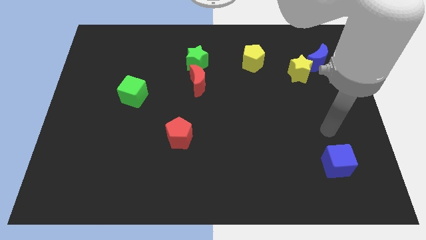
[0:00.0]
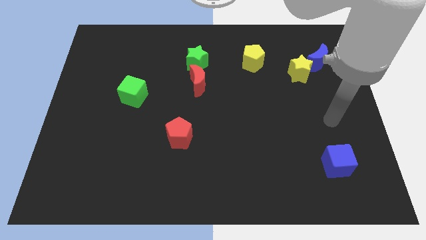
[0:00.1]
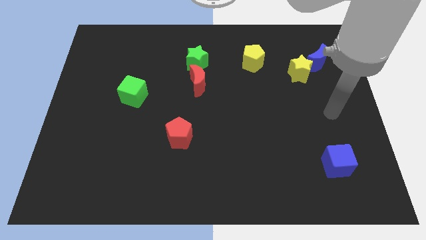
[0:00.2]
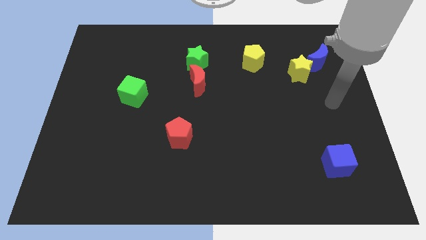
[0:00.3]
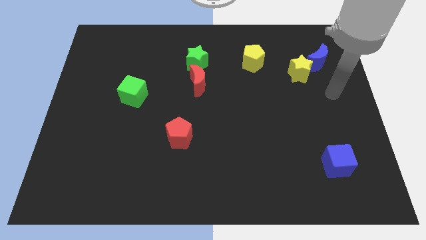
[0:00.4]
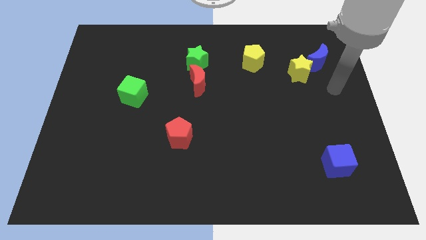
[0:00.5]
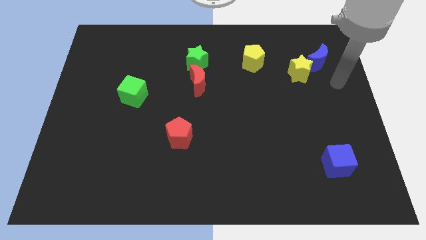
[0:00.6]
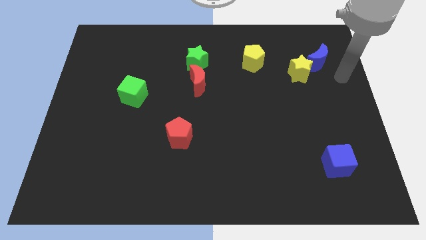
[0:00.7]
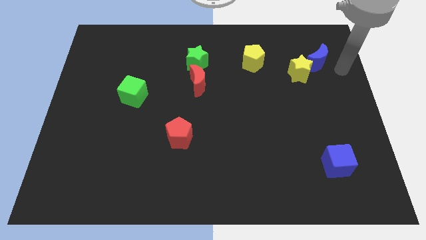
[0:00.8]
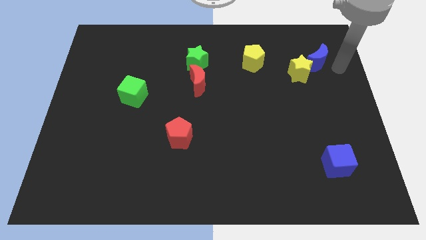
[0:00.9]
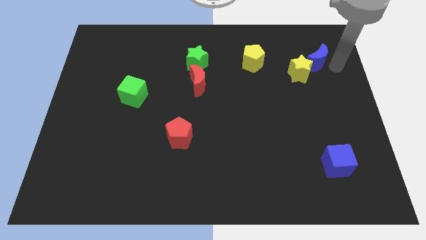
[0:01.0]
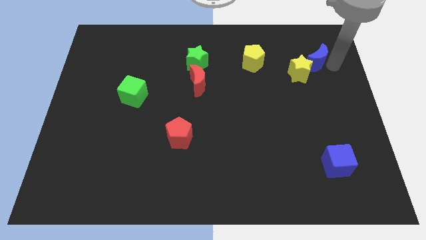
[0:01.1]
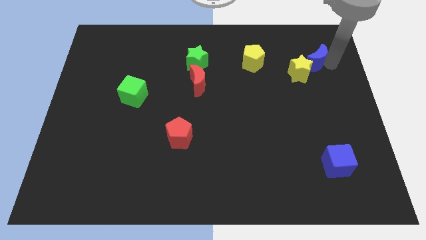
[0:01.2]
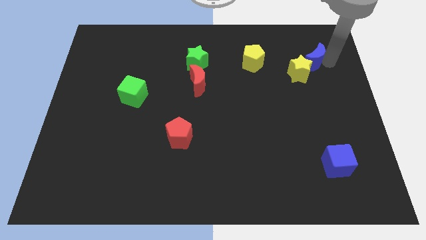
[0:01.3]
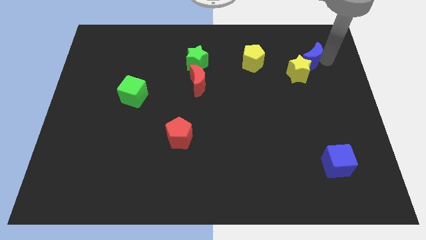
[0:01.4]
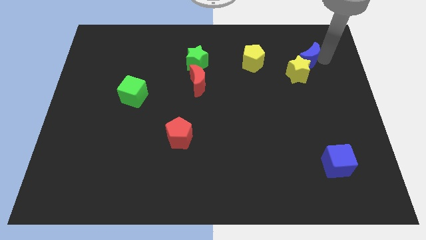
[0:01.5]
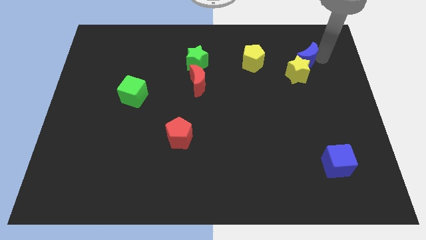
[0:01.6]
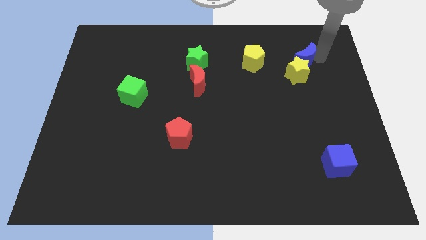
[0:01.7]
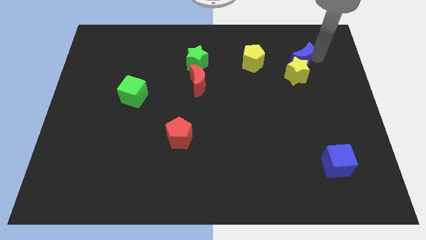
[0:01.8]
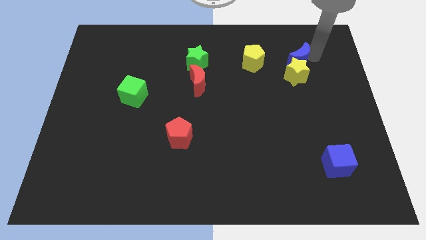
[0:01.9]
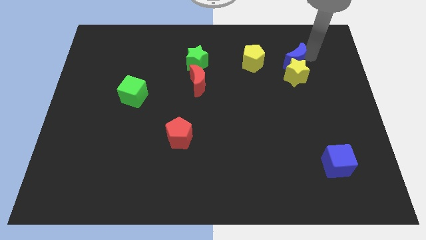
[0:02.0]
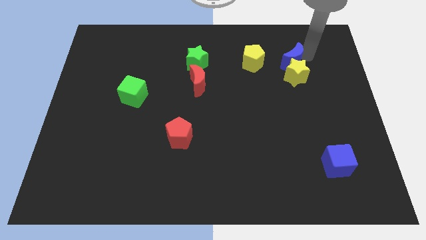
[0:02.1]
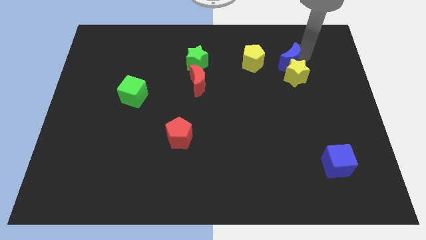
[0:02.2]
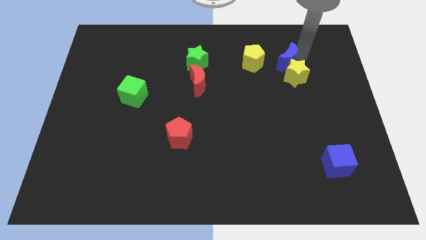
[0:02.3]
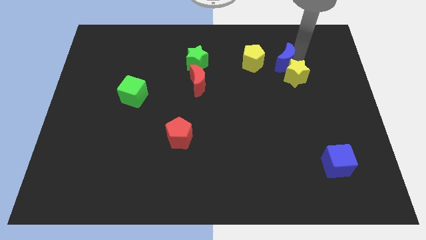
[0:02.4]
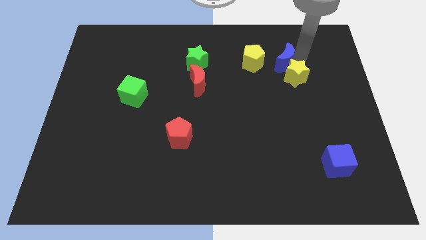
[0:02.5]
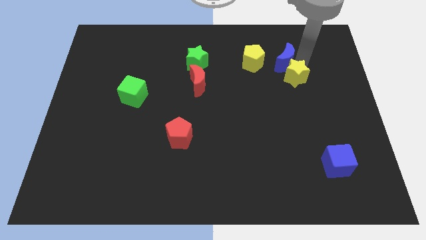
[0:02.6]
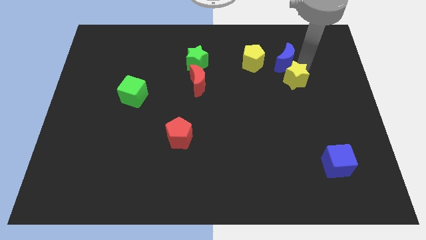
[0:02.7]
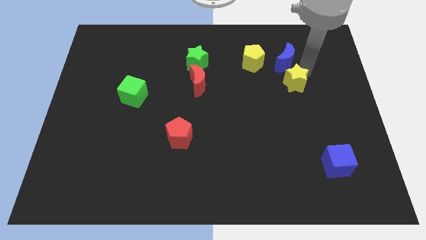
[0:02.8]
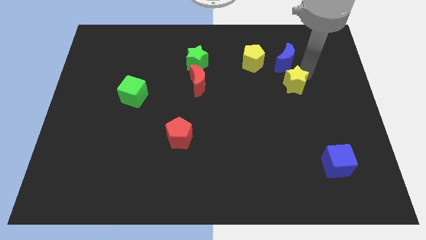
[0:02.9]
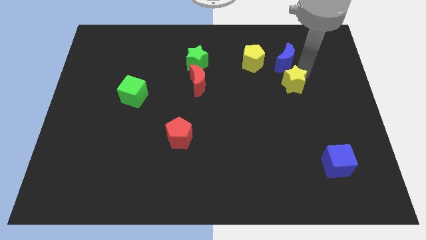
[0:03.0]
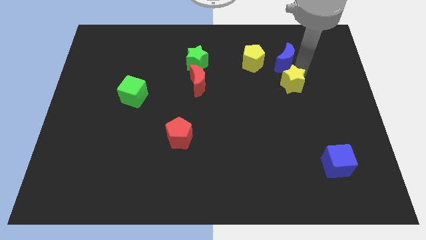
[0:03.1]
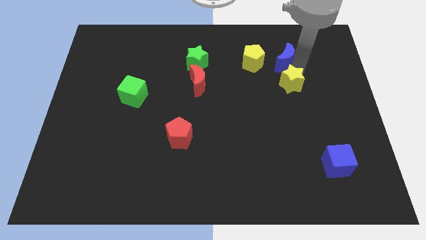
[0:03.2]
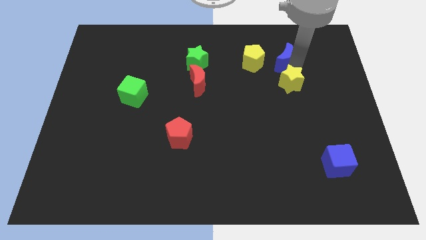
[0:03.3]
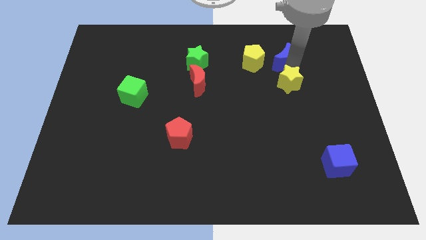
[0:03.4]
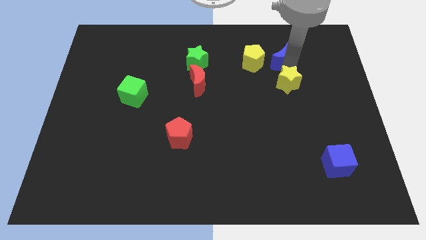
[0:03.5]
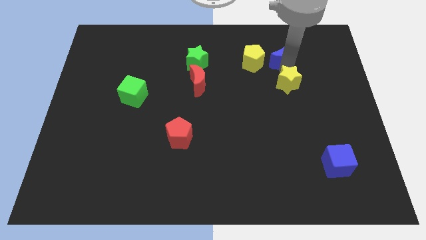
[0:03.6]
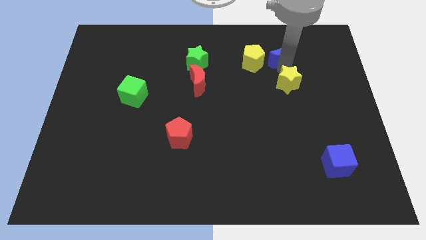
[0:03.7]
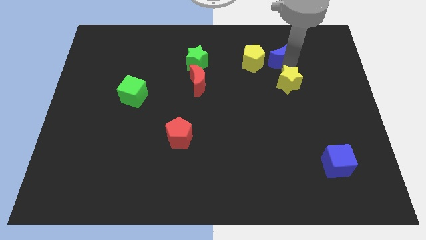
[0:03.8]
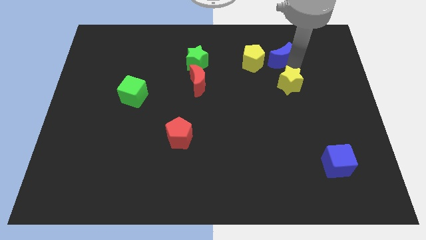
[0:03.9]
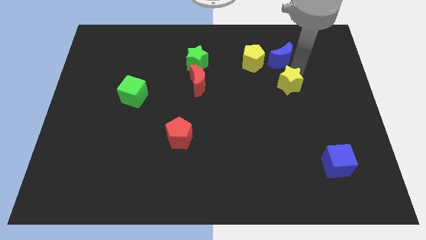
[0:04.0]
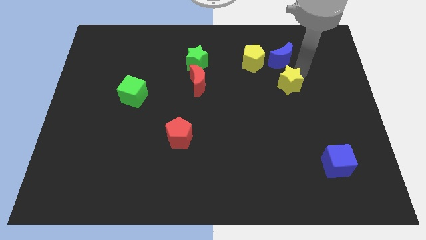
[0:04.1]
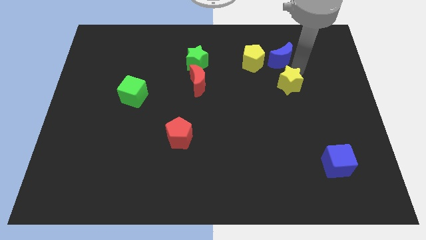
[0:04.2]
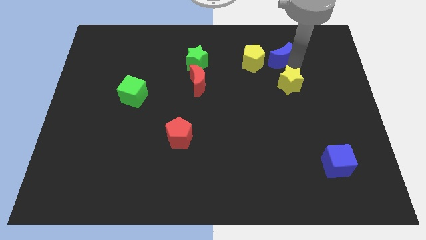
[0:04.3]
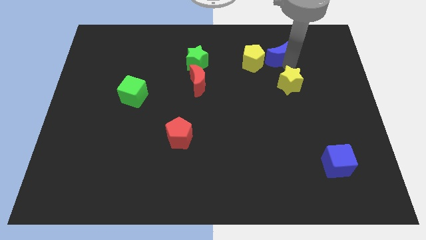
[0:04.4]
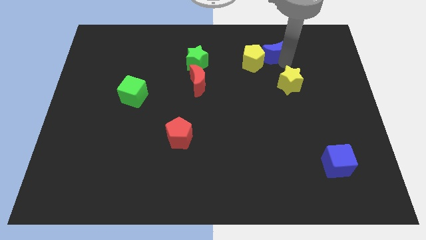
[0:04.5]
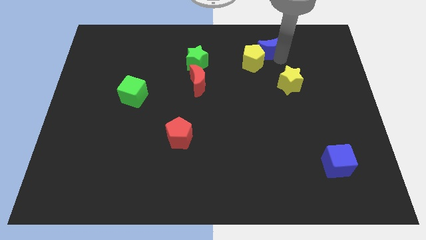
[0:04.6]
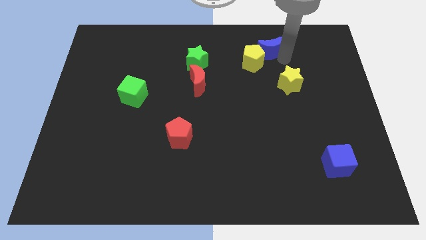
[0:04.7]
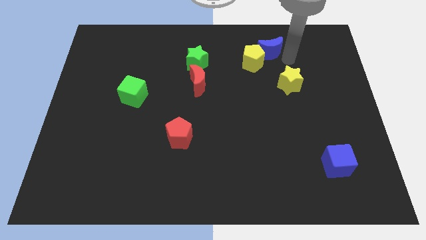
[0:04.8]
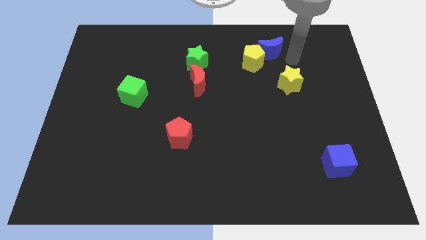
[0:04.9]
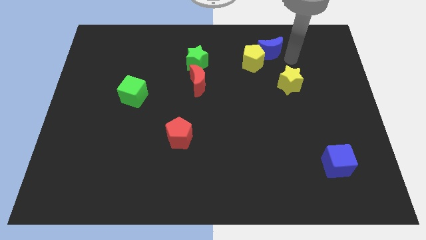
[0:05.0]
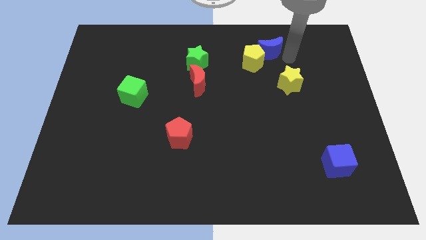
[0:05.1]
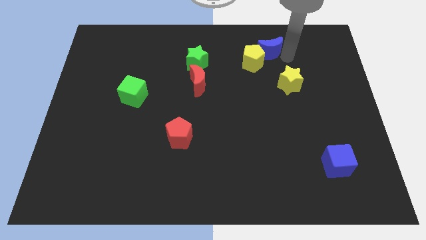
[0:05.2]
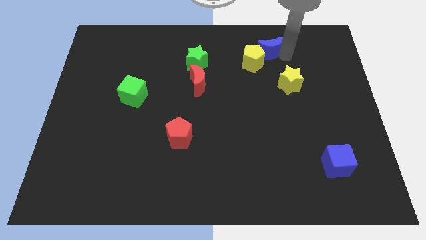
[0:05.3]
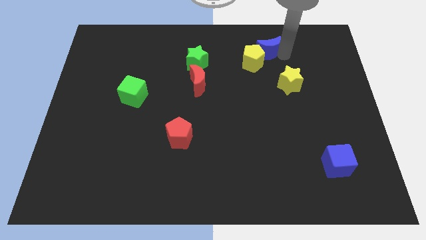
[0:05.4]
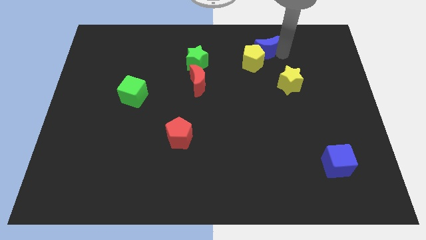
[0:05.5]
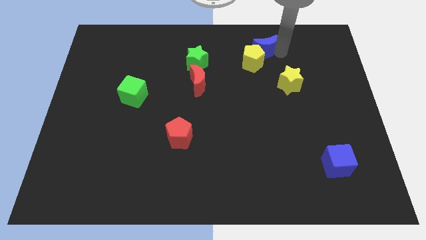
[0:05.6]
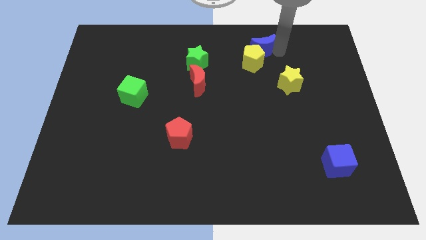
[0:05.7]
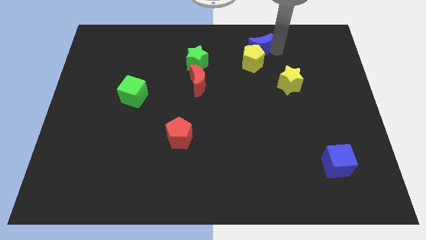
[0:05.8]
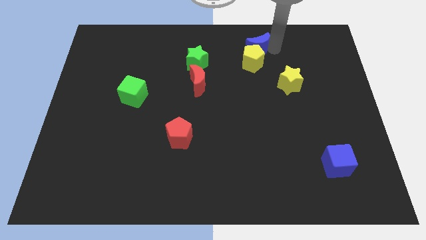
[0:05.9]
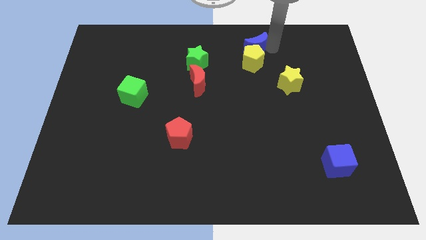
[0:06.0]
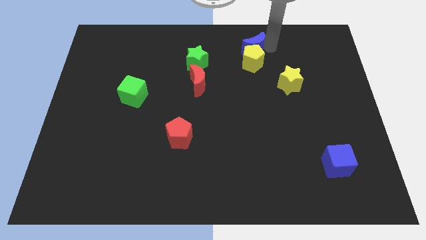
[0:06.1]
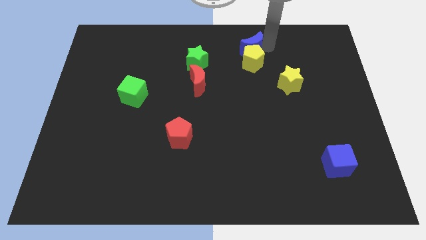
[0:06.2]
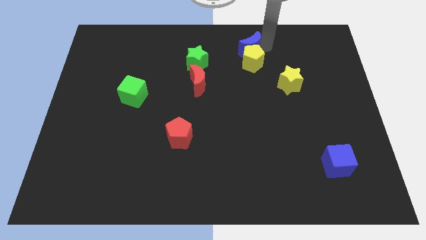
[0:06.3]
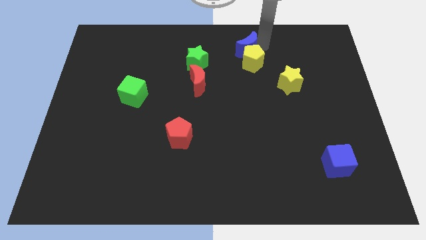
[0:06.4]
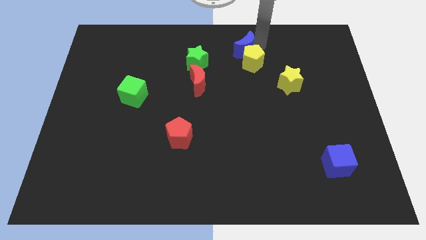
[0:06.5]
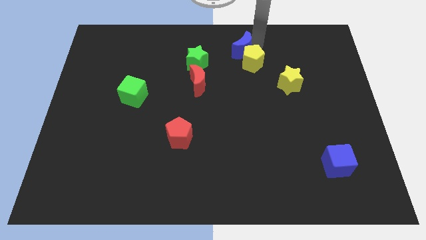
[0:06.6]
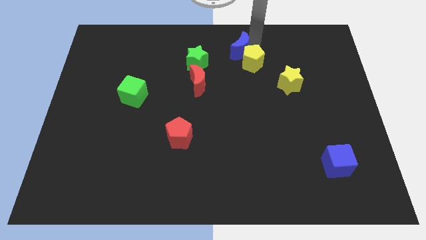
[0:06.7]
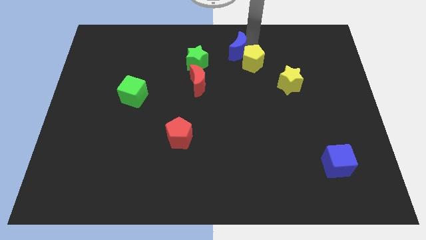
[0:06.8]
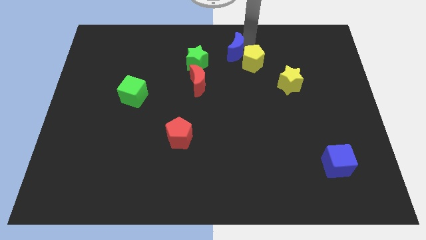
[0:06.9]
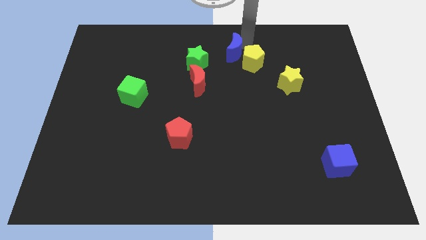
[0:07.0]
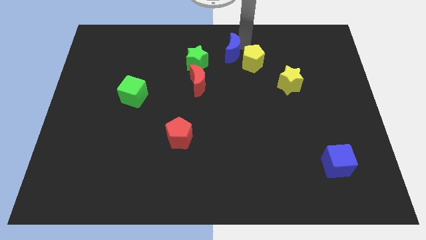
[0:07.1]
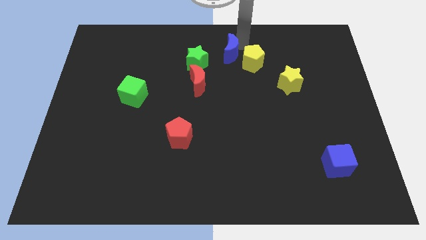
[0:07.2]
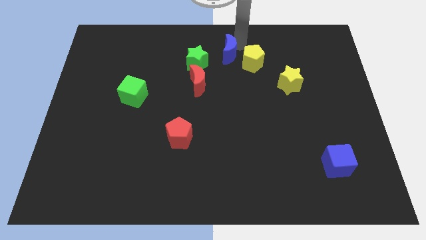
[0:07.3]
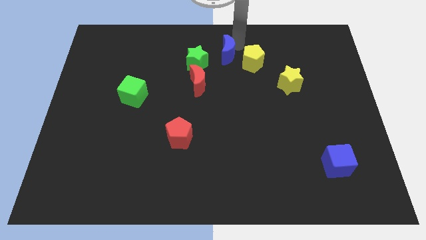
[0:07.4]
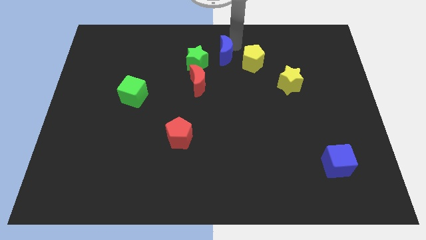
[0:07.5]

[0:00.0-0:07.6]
slide the blue moon diagonally up and to the right of the red moon

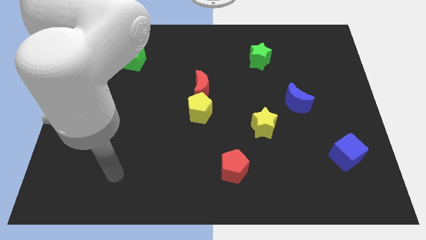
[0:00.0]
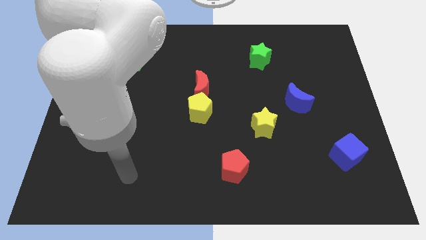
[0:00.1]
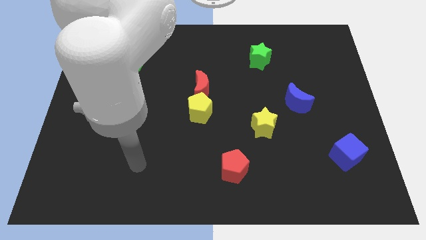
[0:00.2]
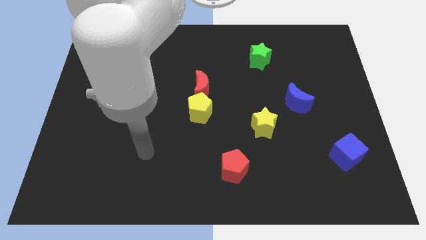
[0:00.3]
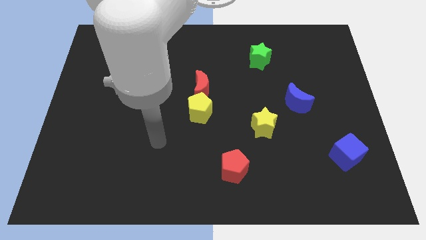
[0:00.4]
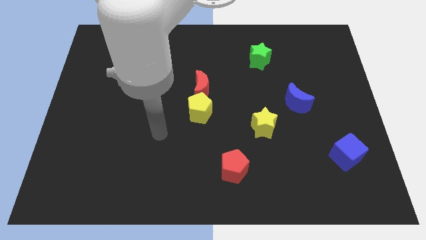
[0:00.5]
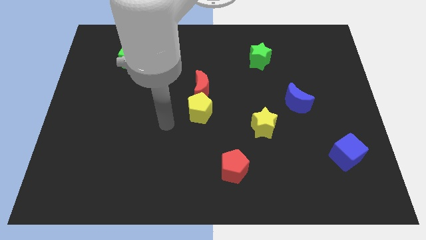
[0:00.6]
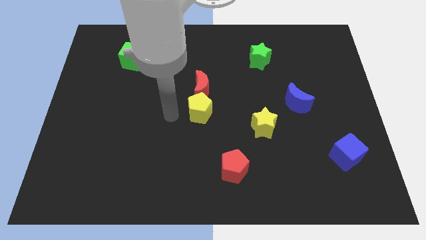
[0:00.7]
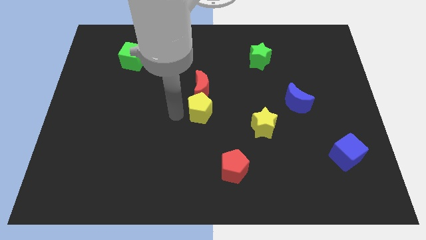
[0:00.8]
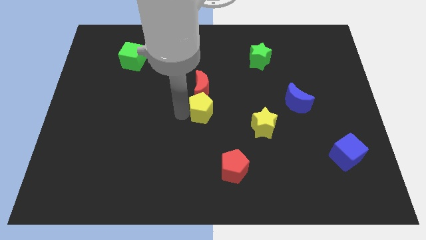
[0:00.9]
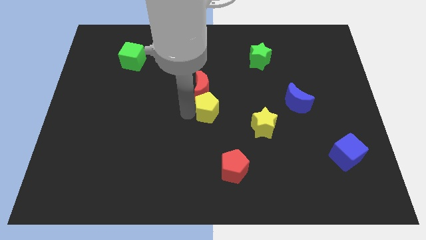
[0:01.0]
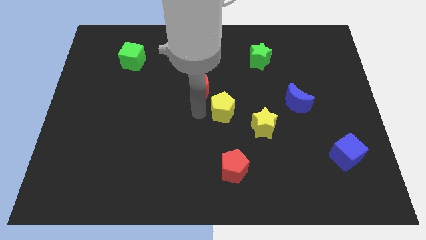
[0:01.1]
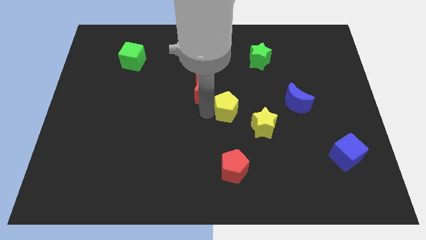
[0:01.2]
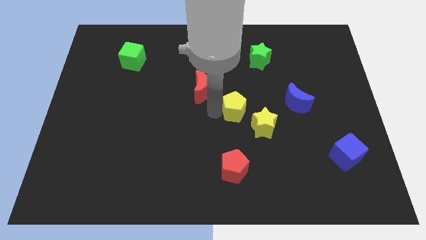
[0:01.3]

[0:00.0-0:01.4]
push the yellow pentagon to the left of the blue moon
